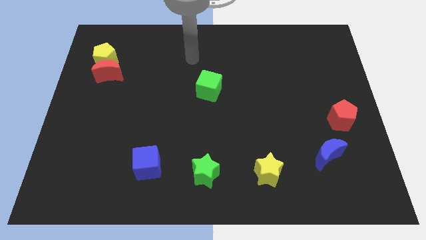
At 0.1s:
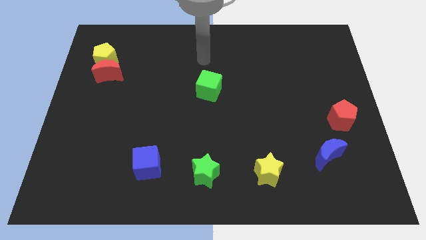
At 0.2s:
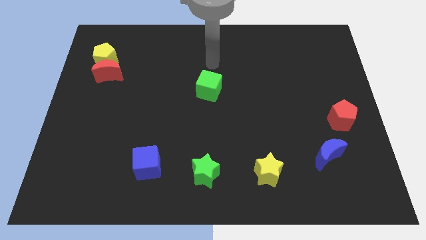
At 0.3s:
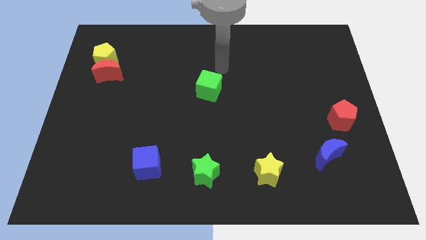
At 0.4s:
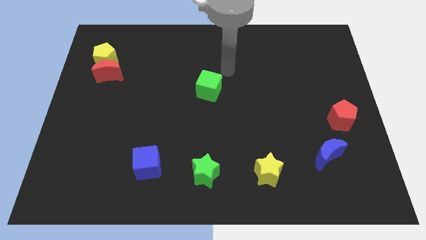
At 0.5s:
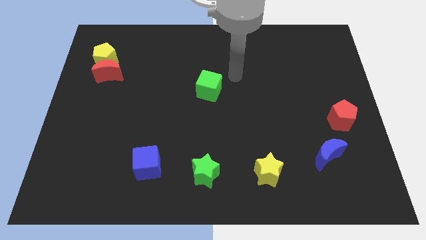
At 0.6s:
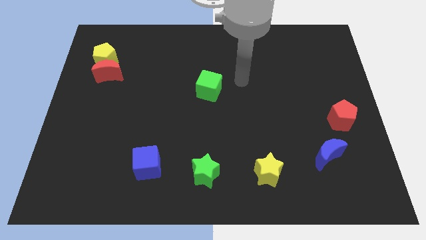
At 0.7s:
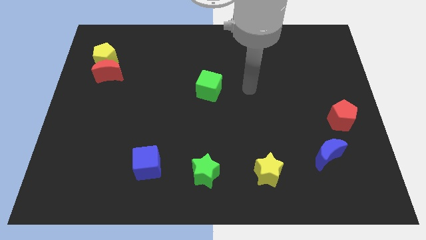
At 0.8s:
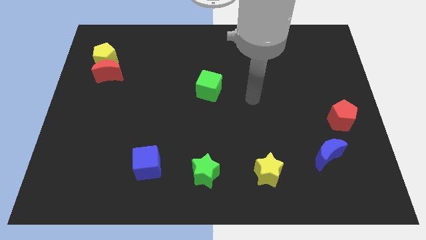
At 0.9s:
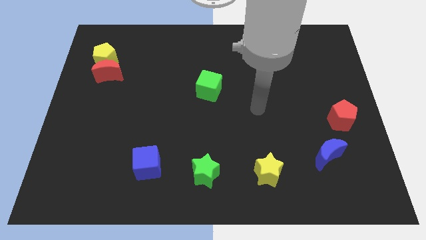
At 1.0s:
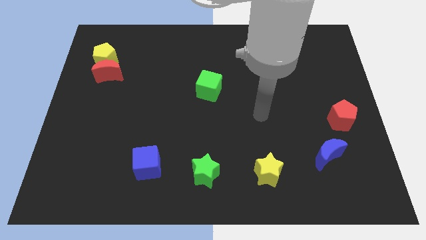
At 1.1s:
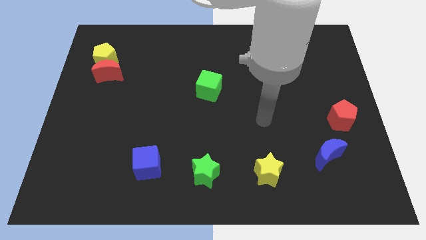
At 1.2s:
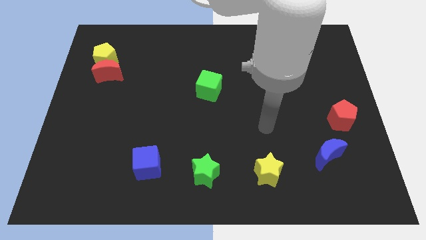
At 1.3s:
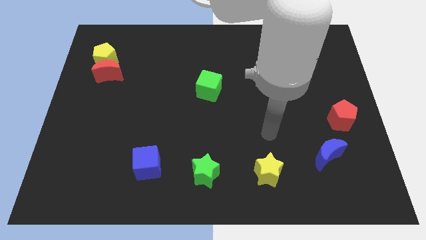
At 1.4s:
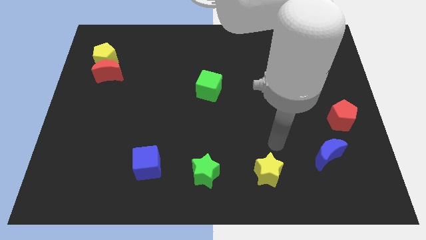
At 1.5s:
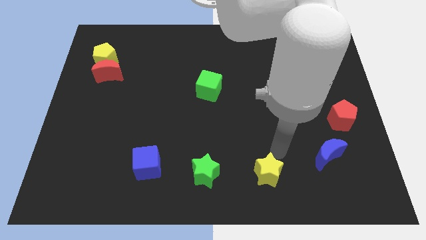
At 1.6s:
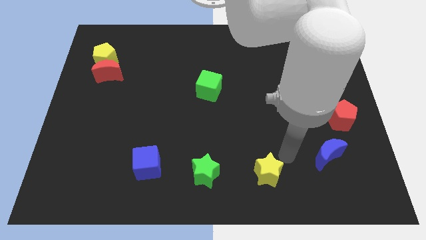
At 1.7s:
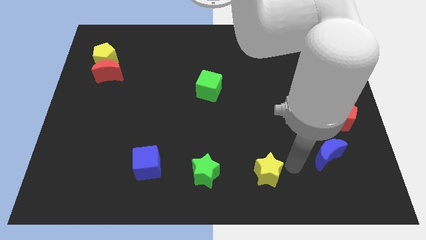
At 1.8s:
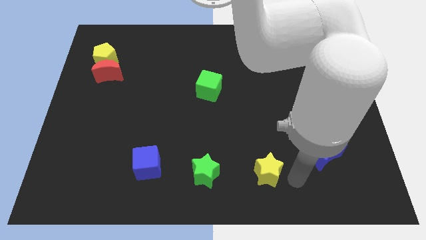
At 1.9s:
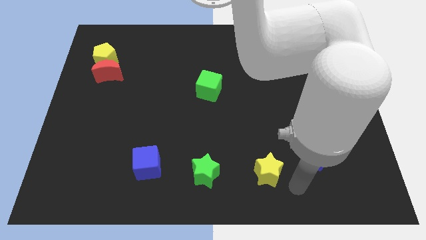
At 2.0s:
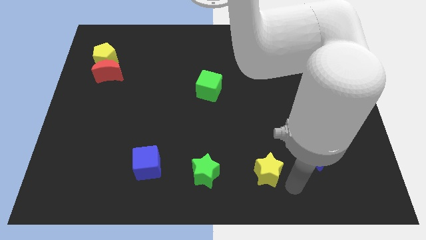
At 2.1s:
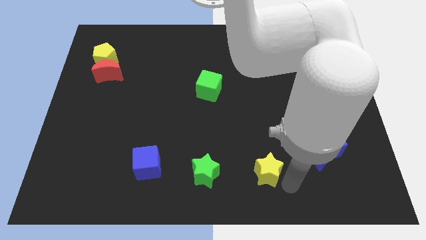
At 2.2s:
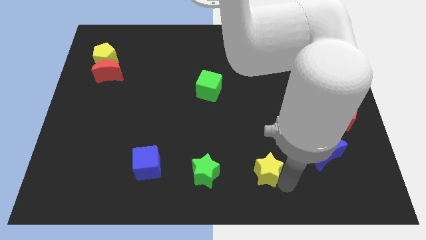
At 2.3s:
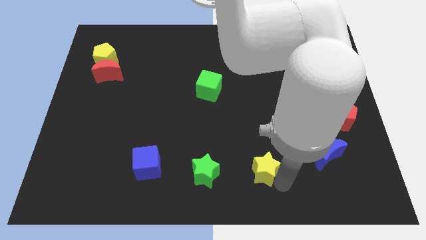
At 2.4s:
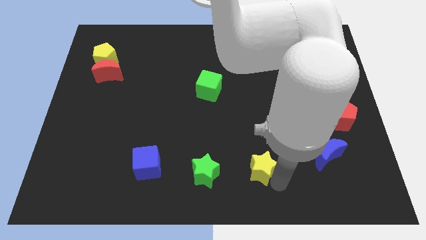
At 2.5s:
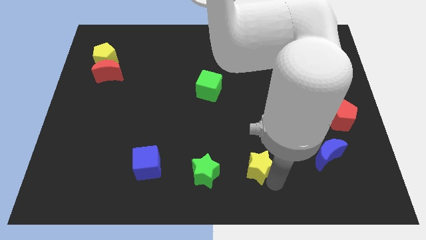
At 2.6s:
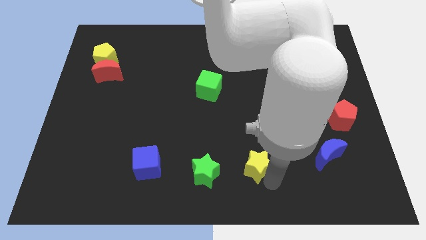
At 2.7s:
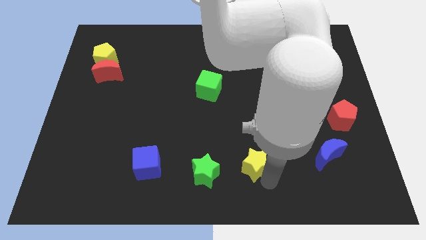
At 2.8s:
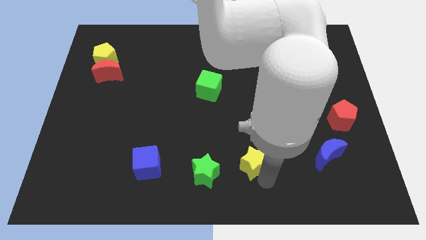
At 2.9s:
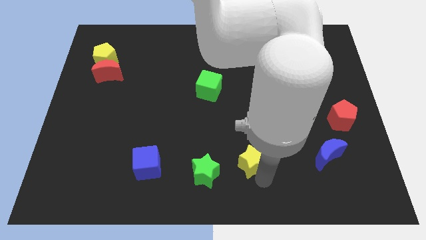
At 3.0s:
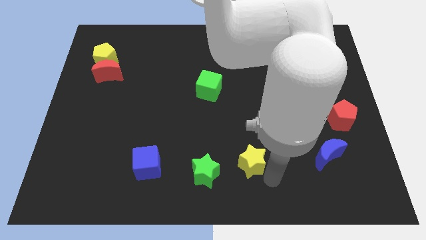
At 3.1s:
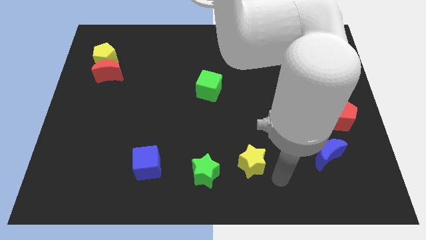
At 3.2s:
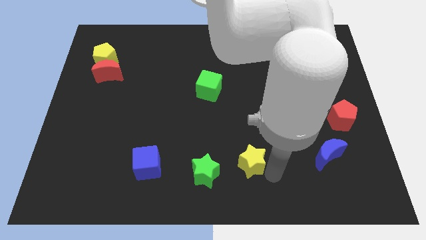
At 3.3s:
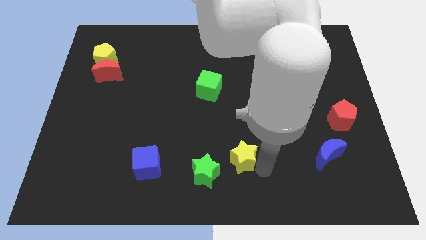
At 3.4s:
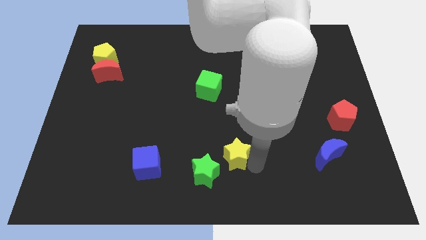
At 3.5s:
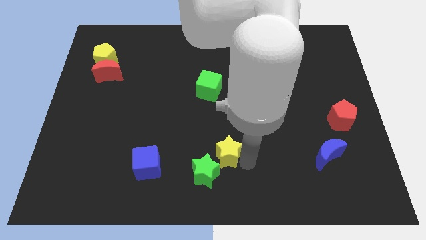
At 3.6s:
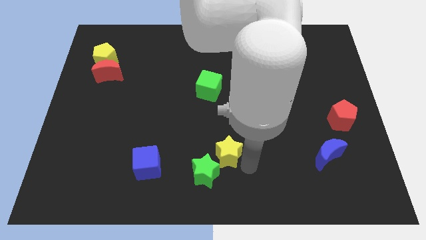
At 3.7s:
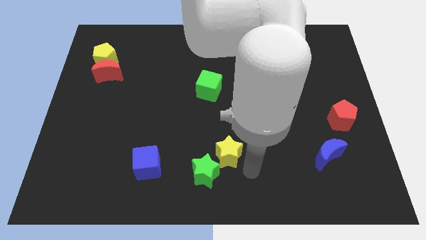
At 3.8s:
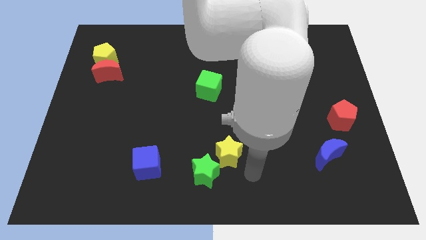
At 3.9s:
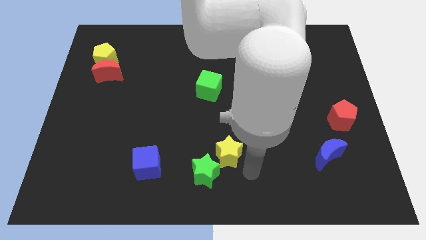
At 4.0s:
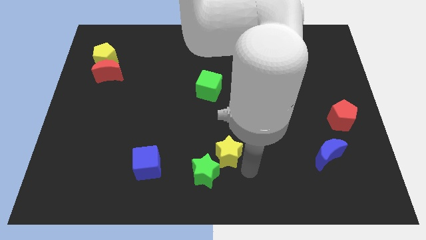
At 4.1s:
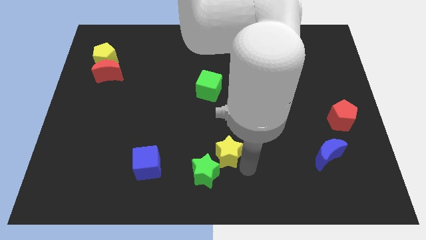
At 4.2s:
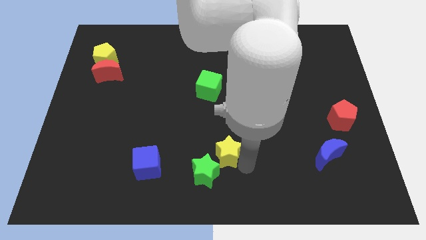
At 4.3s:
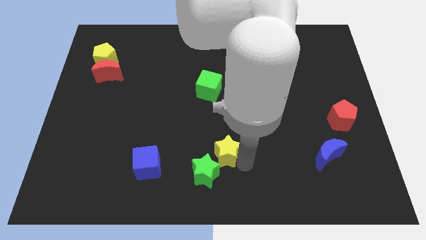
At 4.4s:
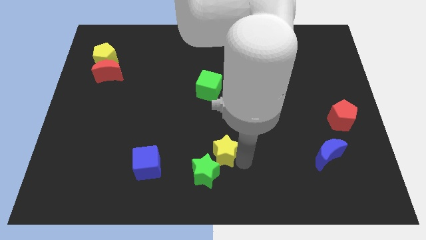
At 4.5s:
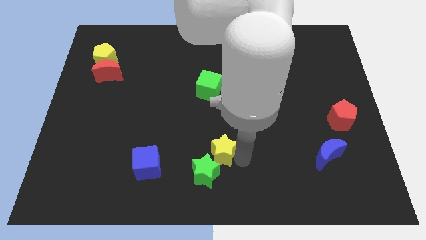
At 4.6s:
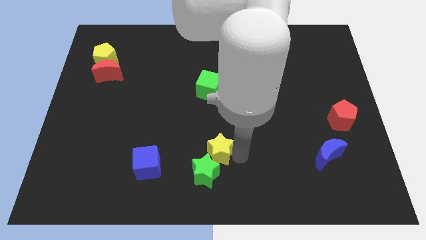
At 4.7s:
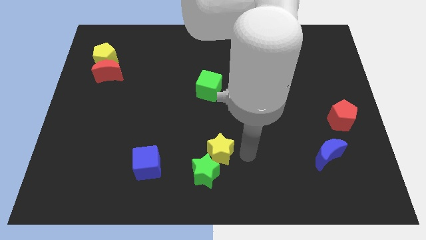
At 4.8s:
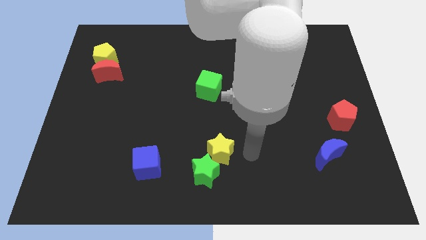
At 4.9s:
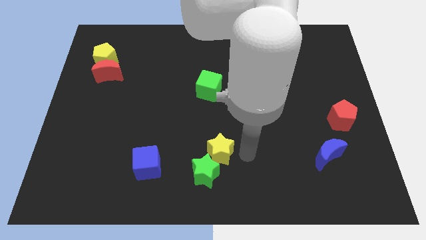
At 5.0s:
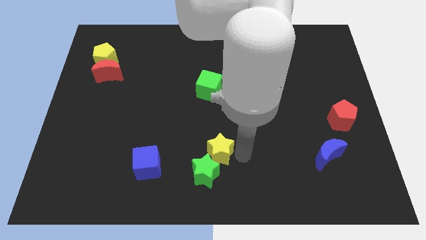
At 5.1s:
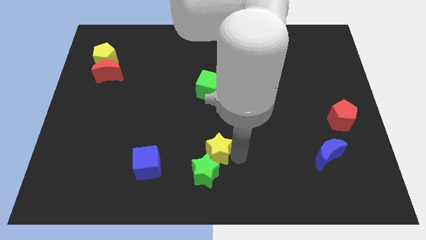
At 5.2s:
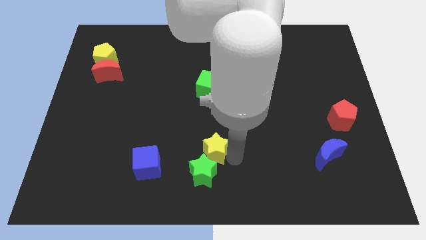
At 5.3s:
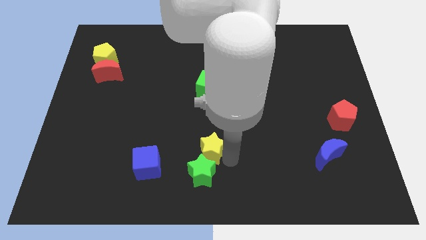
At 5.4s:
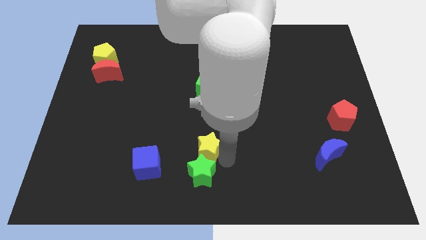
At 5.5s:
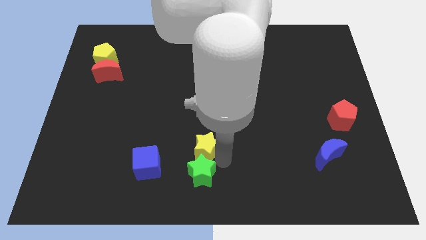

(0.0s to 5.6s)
push the yellow star to the top left of the green star

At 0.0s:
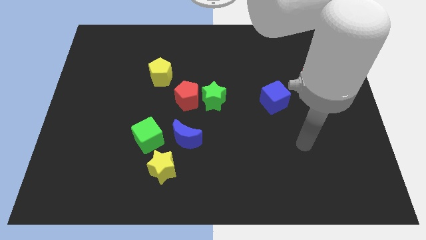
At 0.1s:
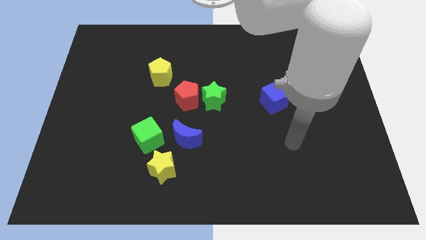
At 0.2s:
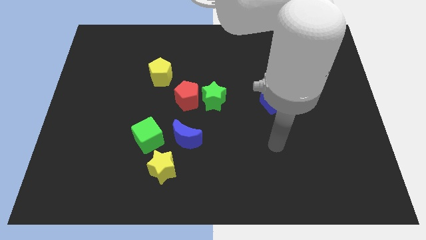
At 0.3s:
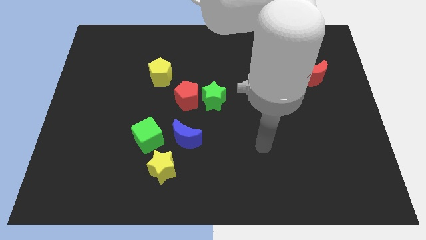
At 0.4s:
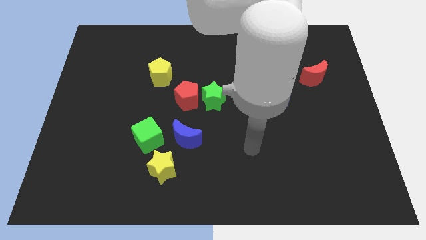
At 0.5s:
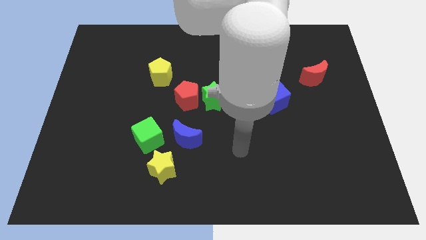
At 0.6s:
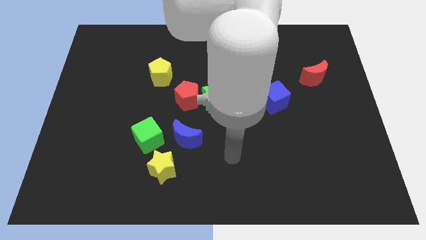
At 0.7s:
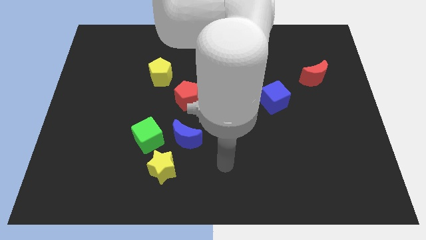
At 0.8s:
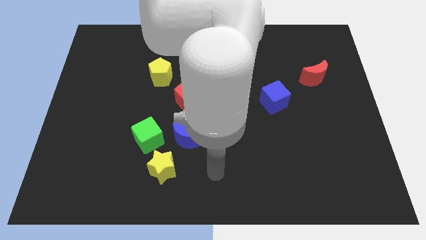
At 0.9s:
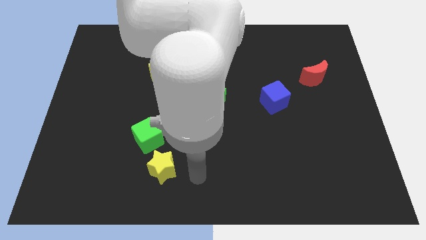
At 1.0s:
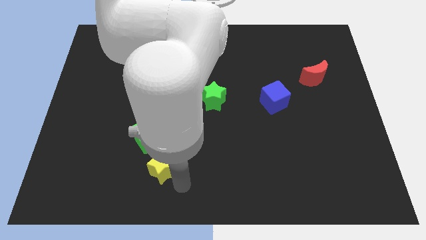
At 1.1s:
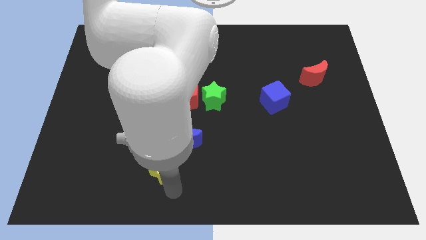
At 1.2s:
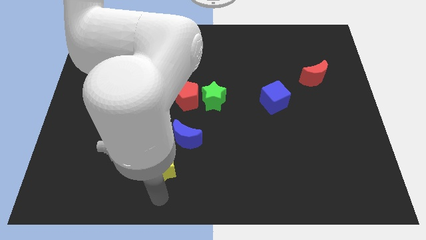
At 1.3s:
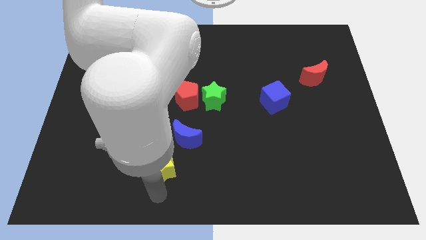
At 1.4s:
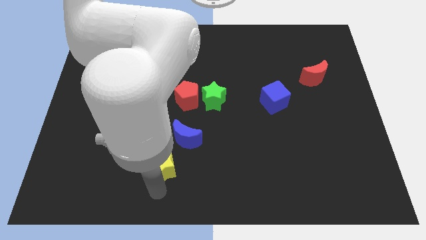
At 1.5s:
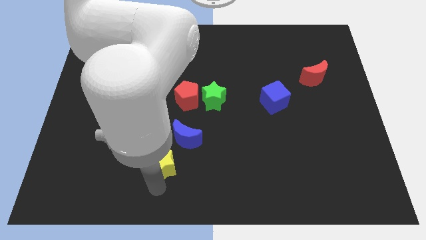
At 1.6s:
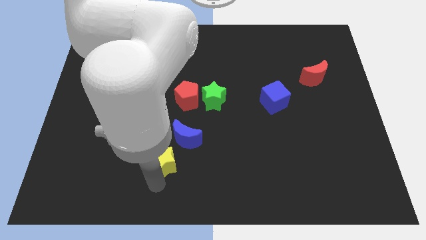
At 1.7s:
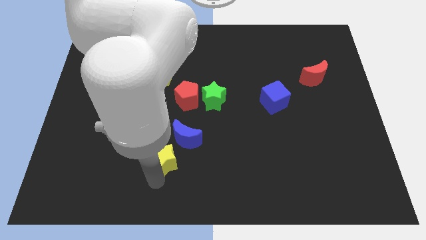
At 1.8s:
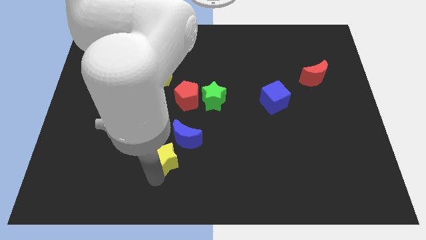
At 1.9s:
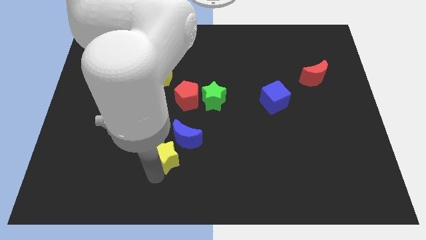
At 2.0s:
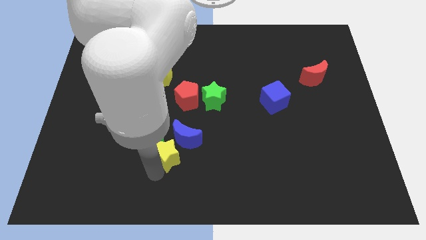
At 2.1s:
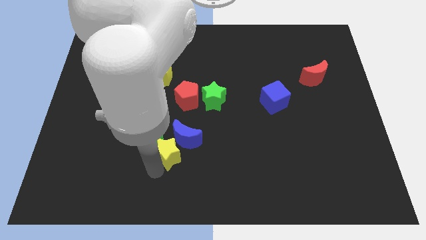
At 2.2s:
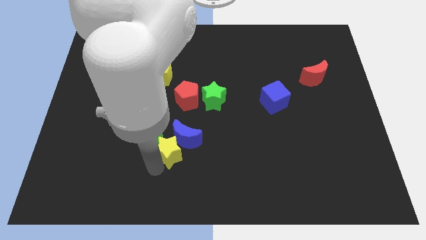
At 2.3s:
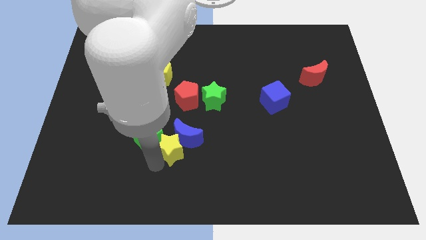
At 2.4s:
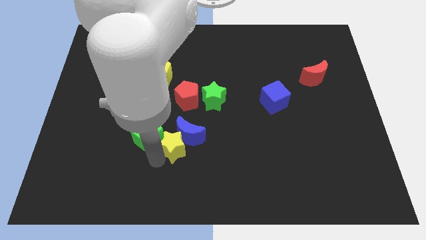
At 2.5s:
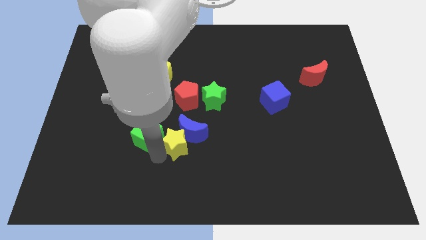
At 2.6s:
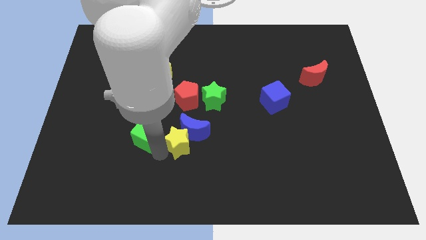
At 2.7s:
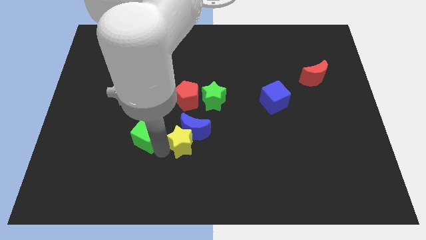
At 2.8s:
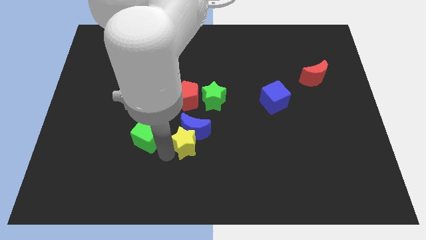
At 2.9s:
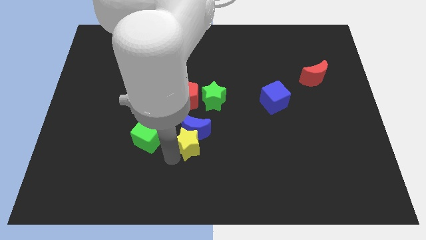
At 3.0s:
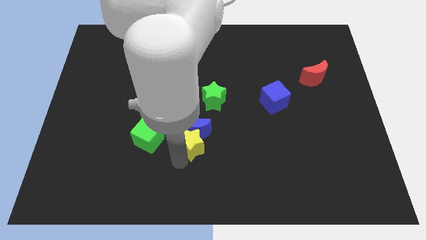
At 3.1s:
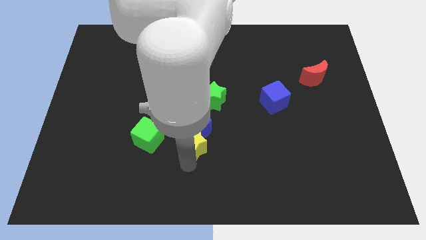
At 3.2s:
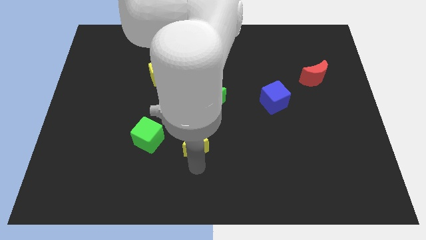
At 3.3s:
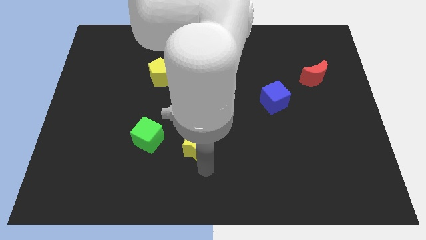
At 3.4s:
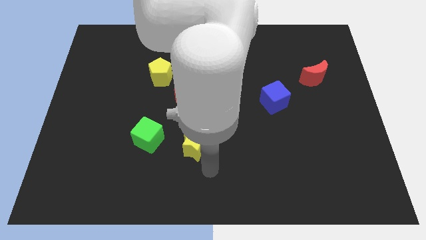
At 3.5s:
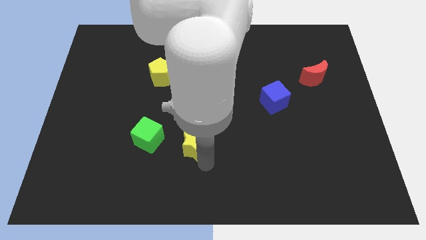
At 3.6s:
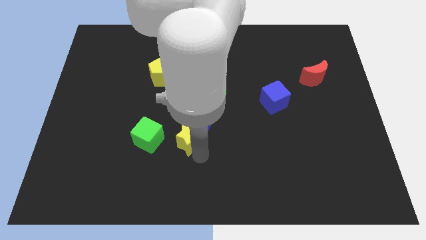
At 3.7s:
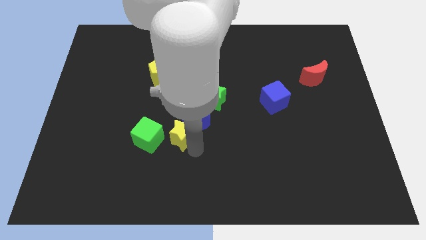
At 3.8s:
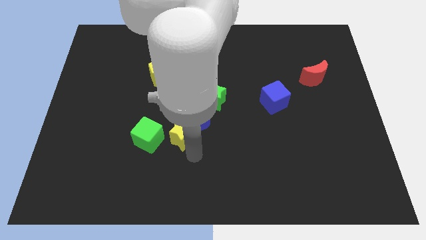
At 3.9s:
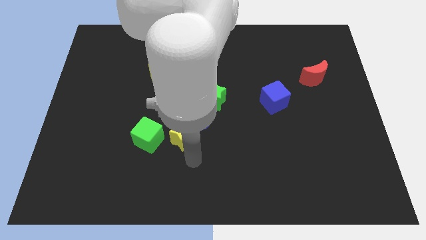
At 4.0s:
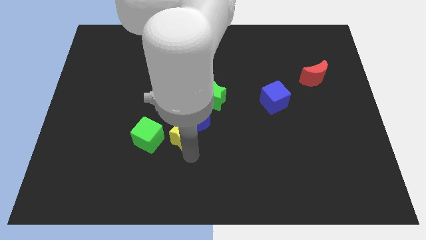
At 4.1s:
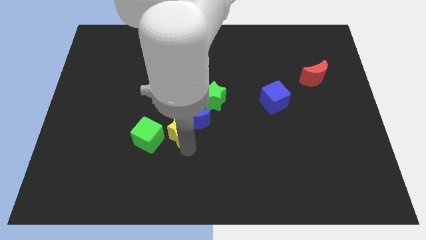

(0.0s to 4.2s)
put the yellow star to the top right of the green cube
